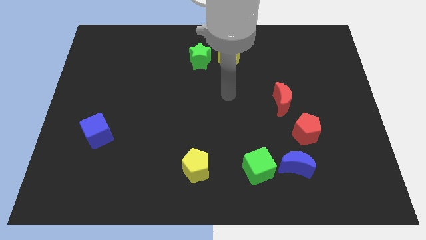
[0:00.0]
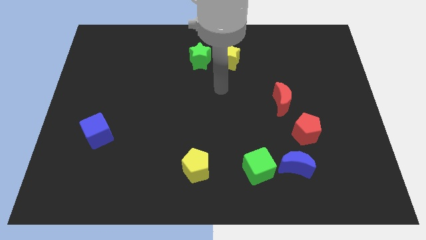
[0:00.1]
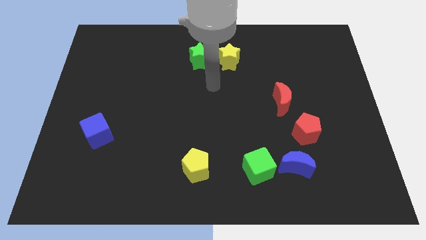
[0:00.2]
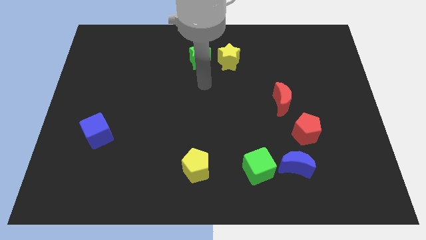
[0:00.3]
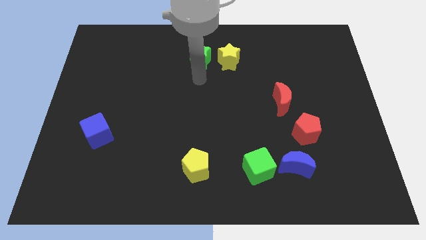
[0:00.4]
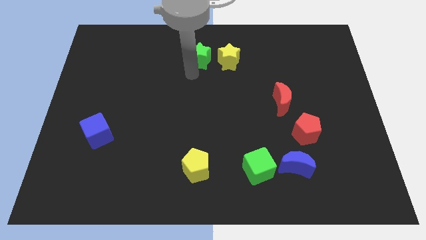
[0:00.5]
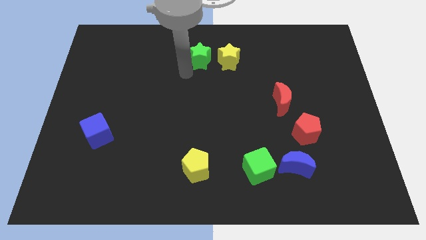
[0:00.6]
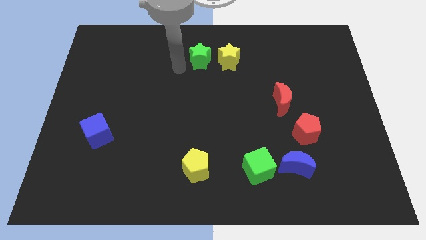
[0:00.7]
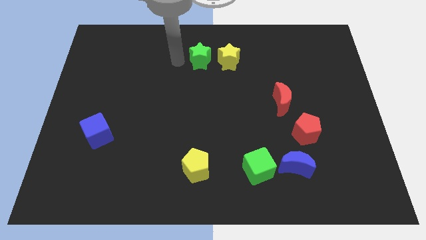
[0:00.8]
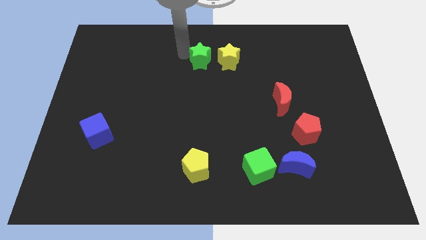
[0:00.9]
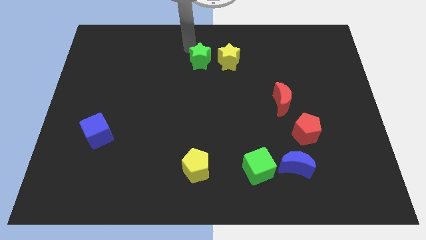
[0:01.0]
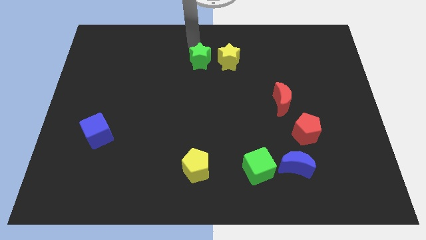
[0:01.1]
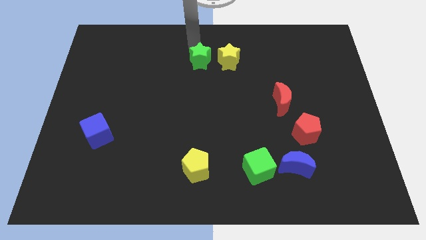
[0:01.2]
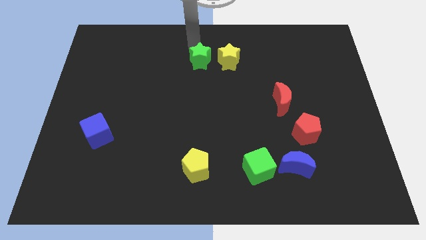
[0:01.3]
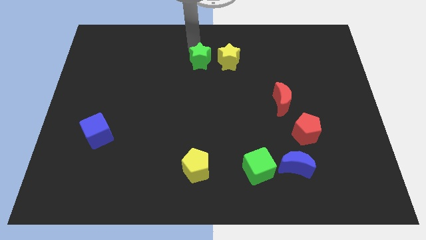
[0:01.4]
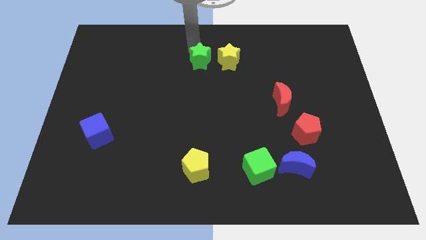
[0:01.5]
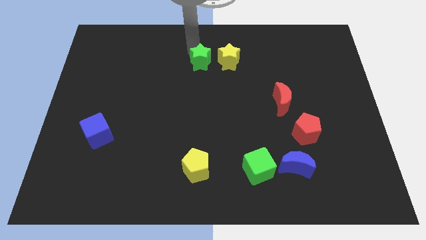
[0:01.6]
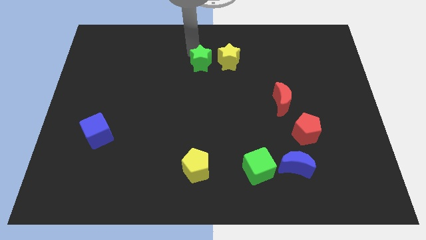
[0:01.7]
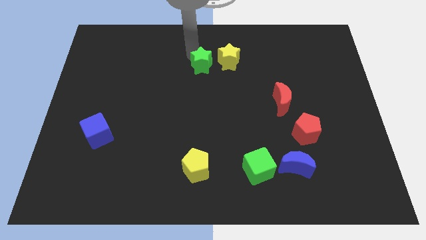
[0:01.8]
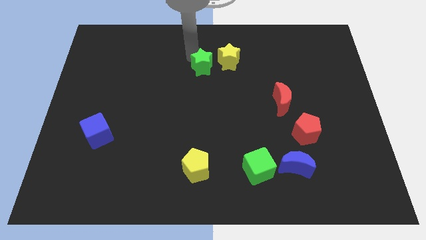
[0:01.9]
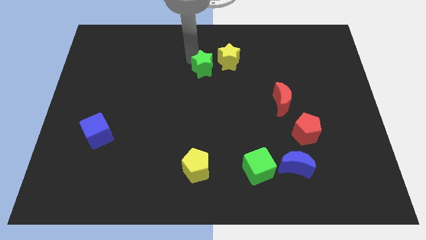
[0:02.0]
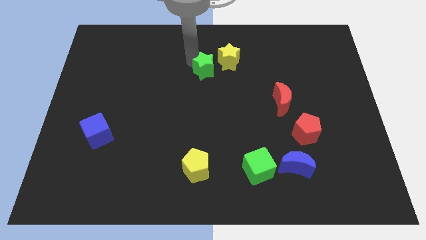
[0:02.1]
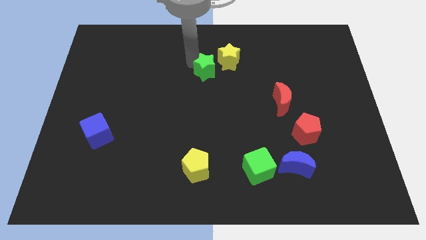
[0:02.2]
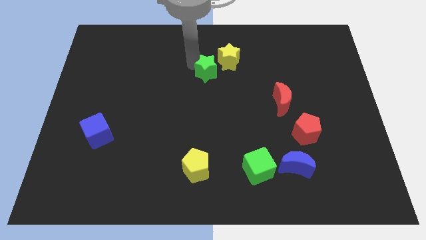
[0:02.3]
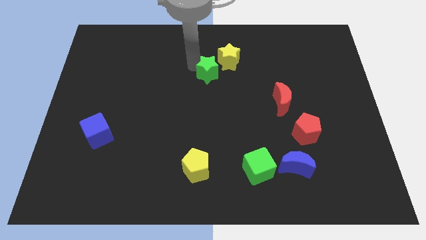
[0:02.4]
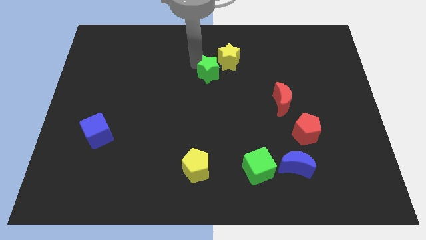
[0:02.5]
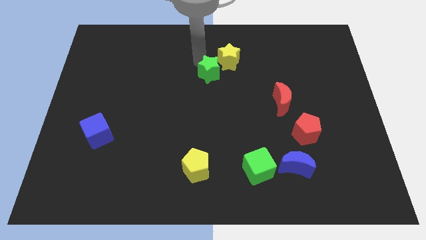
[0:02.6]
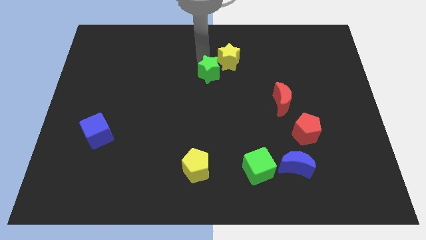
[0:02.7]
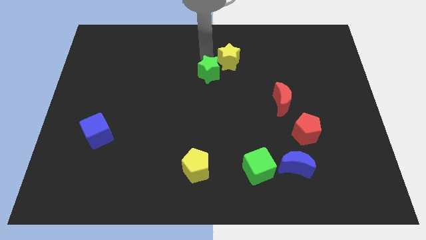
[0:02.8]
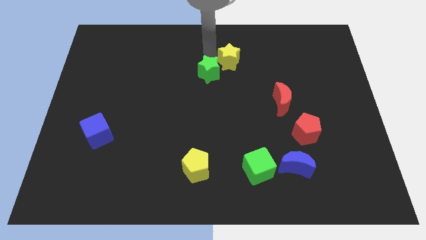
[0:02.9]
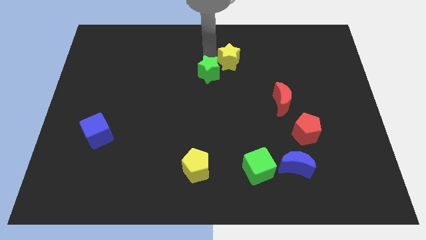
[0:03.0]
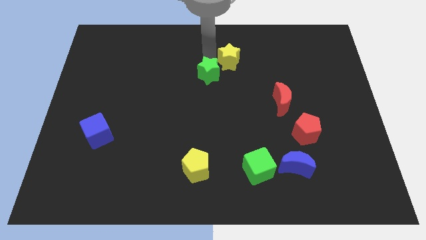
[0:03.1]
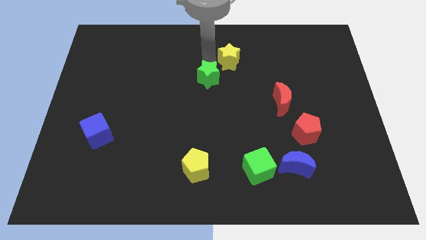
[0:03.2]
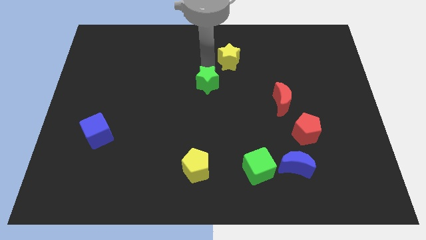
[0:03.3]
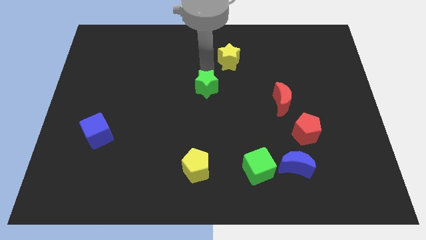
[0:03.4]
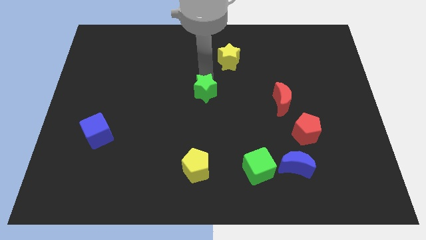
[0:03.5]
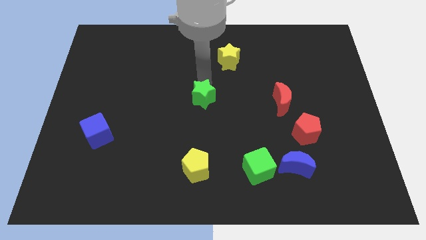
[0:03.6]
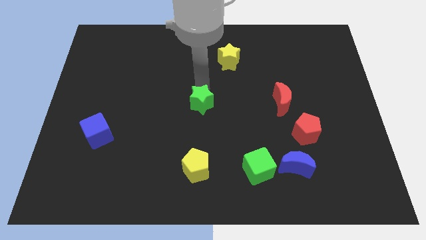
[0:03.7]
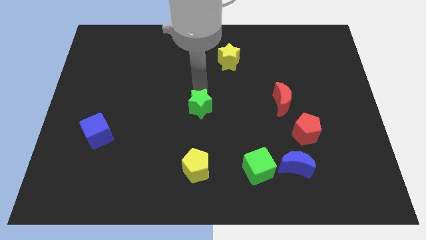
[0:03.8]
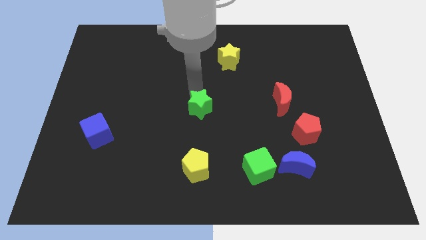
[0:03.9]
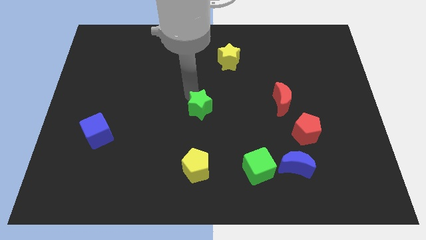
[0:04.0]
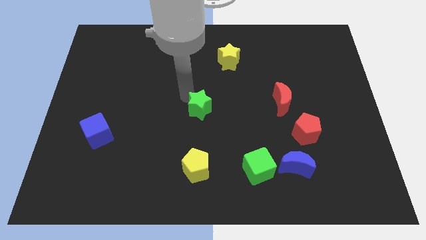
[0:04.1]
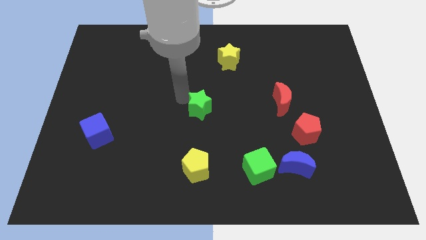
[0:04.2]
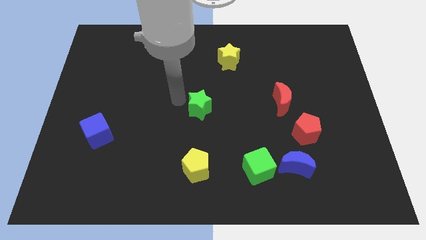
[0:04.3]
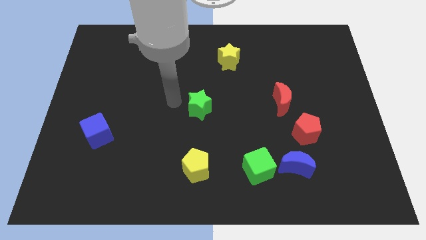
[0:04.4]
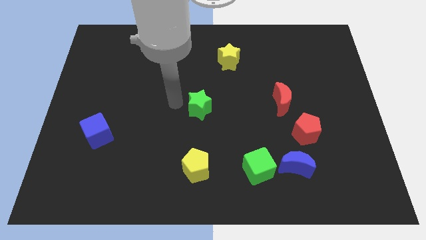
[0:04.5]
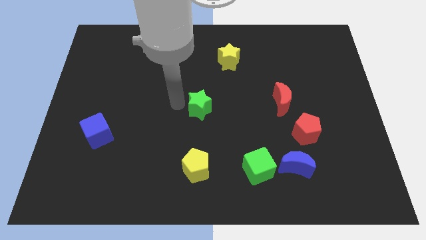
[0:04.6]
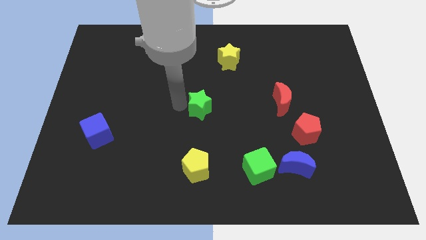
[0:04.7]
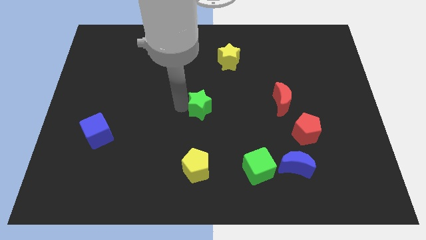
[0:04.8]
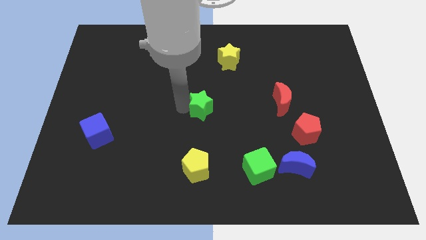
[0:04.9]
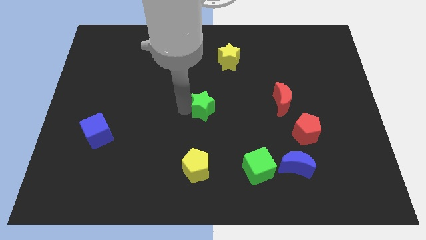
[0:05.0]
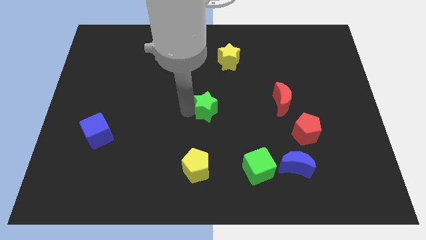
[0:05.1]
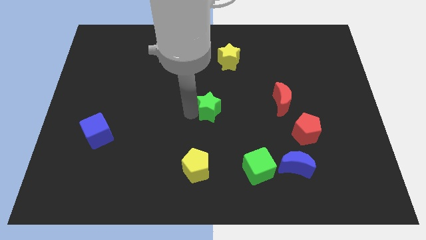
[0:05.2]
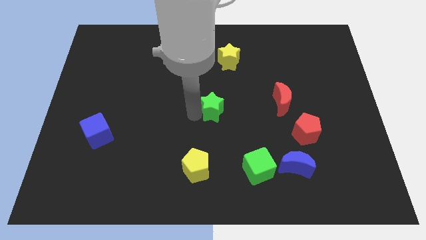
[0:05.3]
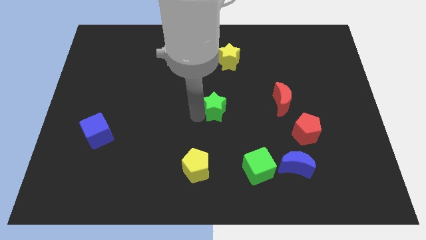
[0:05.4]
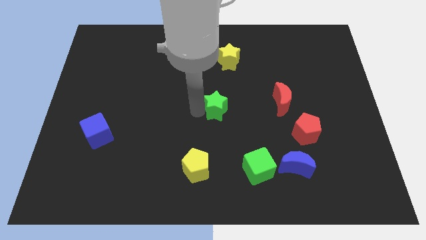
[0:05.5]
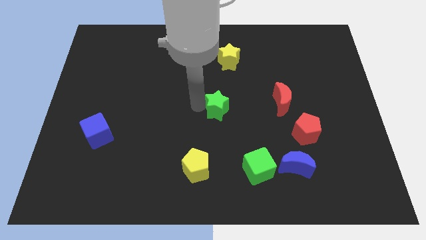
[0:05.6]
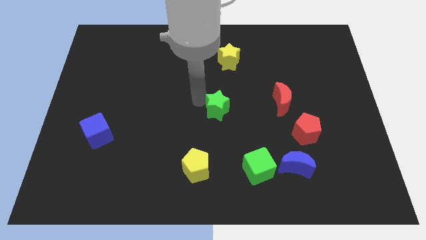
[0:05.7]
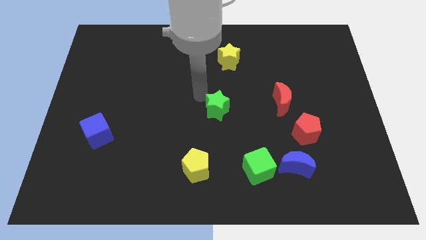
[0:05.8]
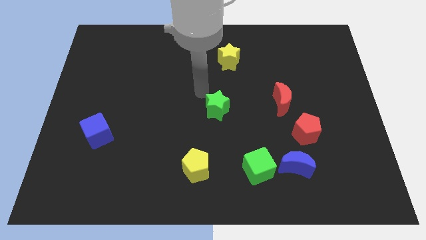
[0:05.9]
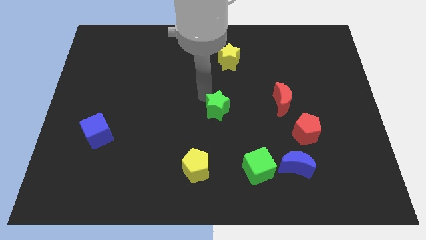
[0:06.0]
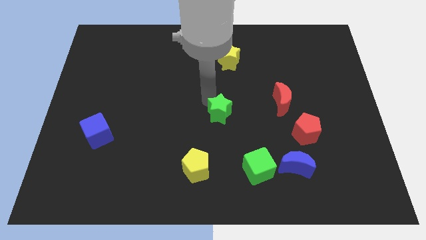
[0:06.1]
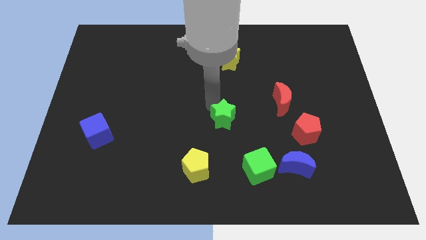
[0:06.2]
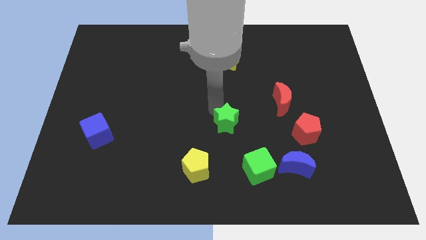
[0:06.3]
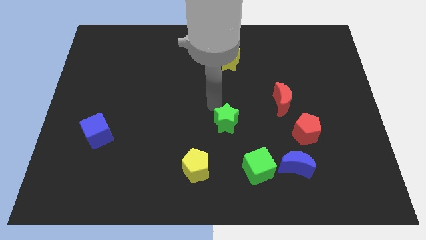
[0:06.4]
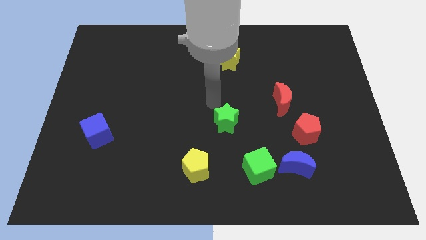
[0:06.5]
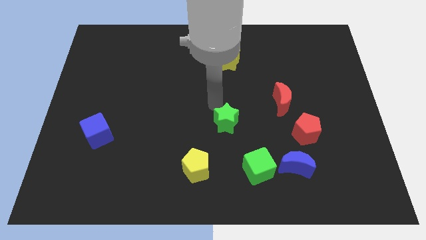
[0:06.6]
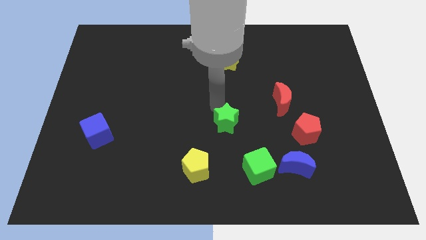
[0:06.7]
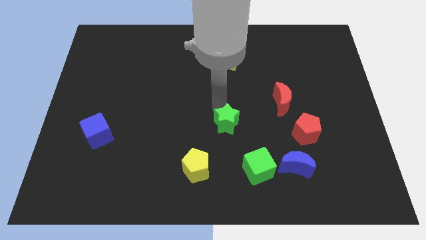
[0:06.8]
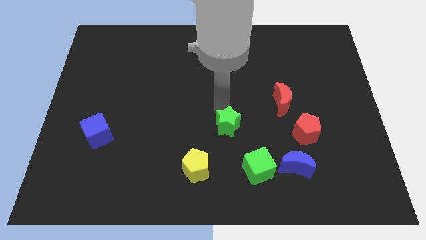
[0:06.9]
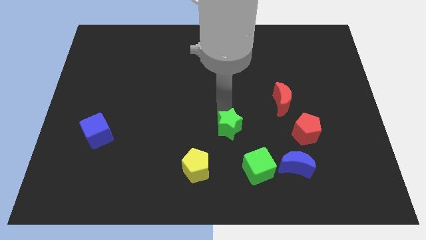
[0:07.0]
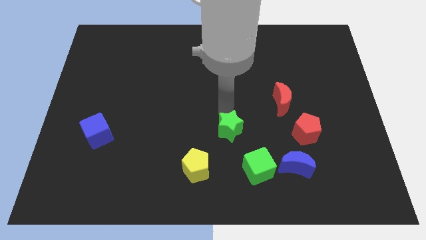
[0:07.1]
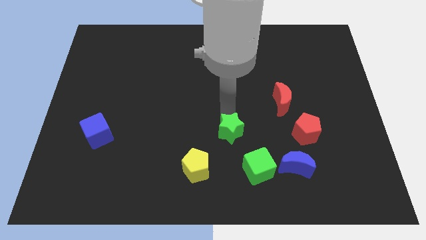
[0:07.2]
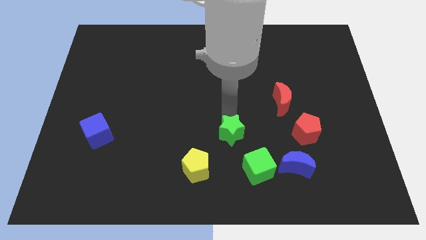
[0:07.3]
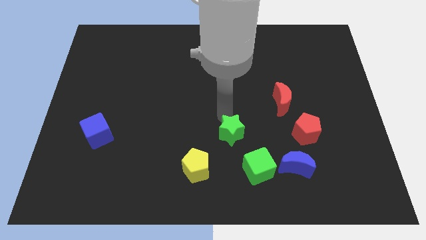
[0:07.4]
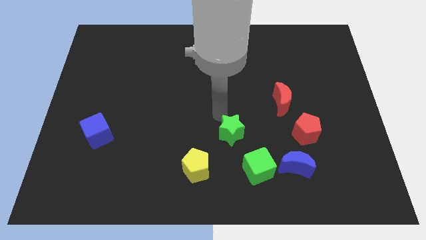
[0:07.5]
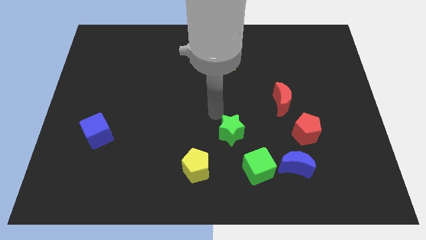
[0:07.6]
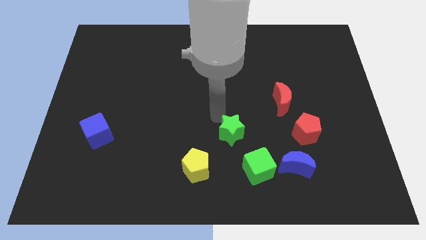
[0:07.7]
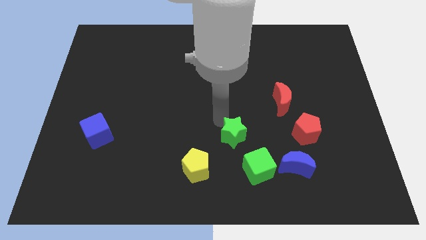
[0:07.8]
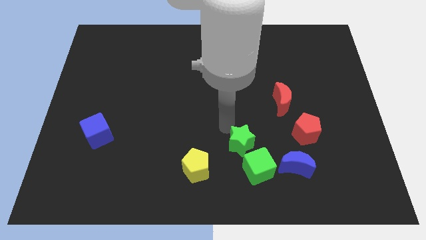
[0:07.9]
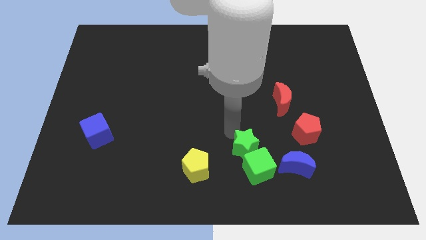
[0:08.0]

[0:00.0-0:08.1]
put the green star just left of the blue moon
